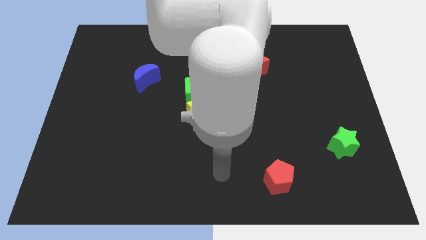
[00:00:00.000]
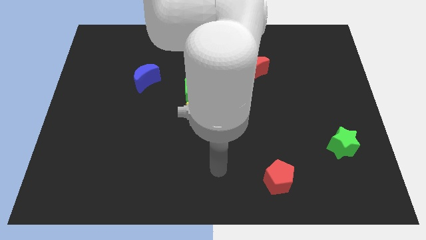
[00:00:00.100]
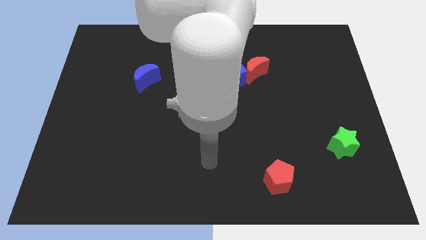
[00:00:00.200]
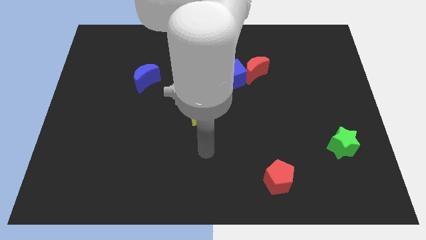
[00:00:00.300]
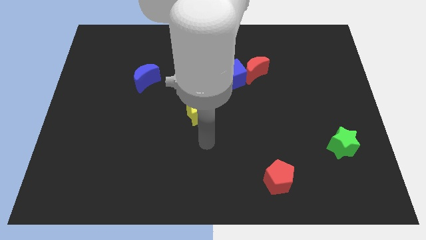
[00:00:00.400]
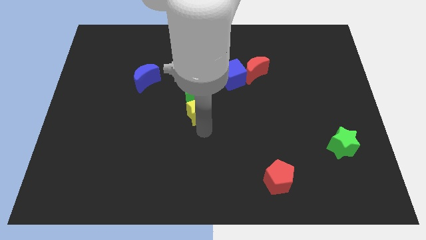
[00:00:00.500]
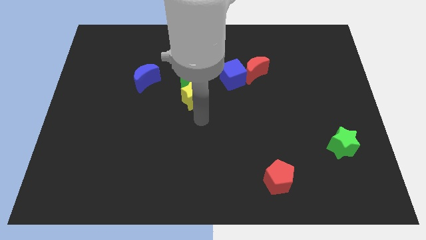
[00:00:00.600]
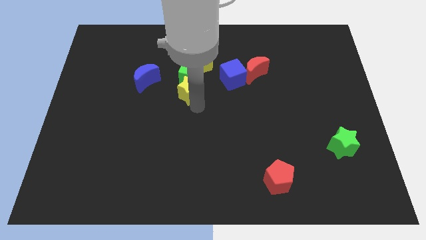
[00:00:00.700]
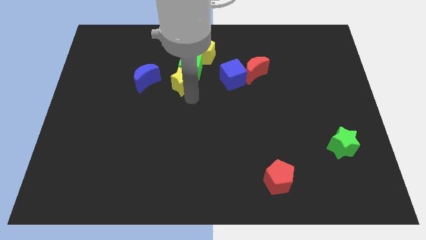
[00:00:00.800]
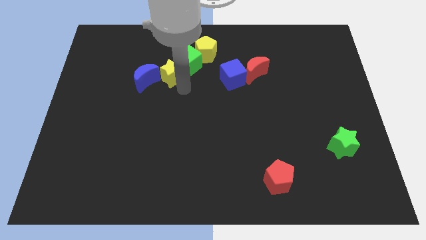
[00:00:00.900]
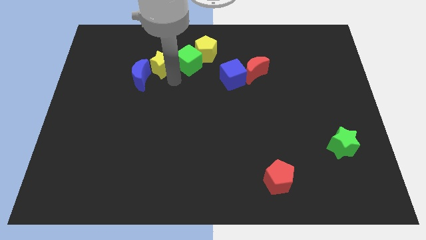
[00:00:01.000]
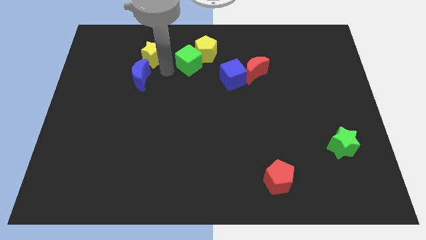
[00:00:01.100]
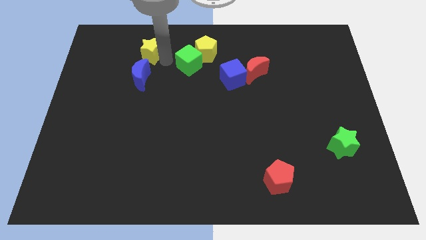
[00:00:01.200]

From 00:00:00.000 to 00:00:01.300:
separate the green cube from the yellow star

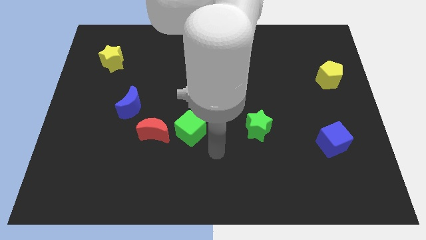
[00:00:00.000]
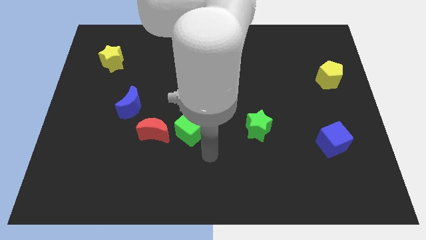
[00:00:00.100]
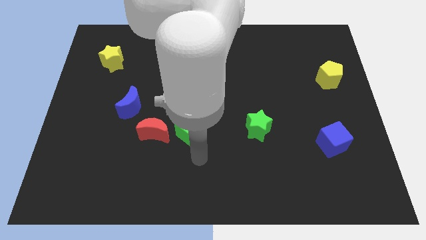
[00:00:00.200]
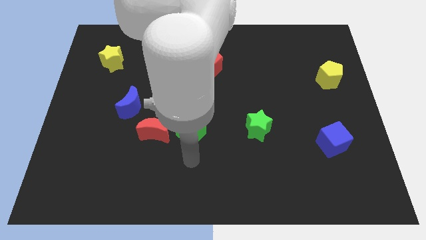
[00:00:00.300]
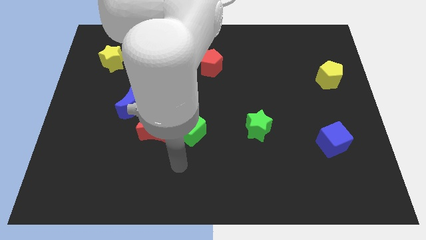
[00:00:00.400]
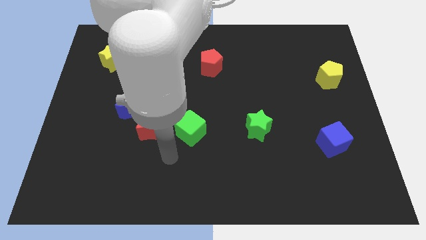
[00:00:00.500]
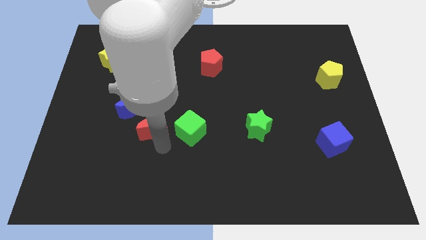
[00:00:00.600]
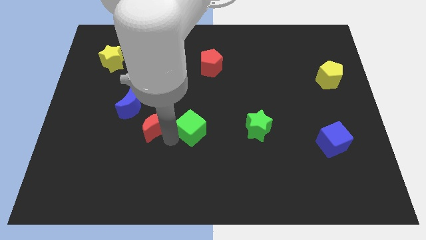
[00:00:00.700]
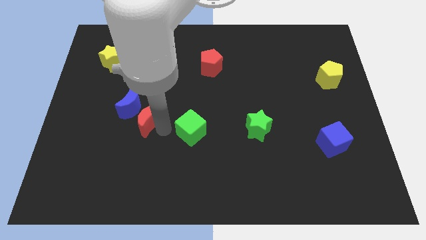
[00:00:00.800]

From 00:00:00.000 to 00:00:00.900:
separate the green cube from the red moon

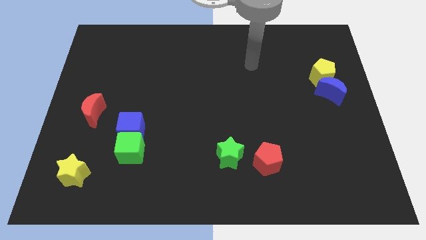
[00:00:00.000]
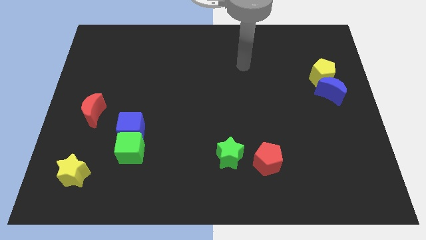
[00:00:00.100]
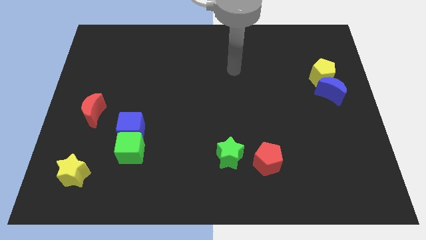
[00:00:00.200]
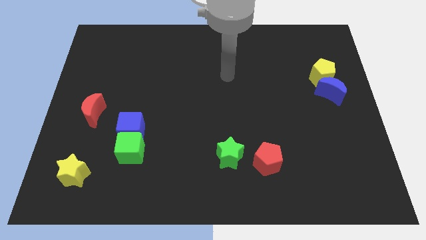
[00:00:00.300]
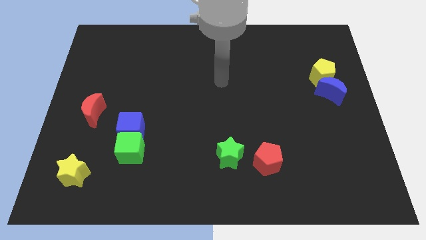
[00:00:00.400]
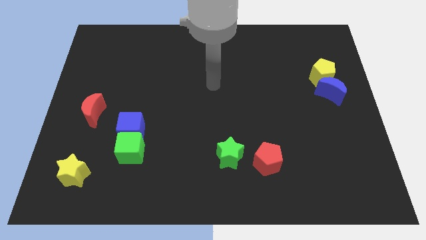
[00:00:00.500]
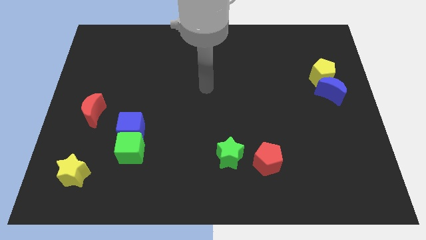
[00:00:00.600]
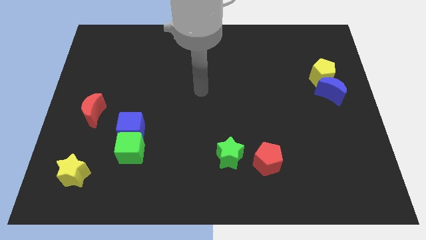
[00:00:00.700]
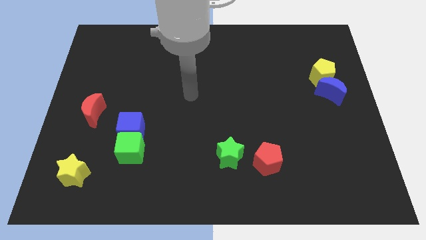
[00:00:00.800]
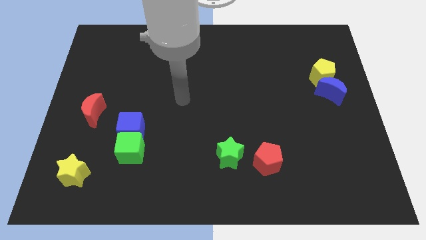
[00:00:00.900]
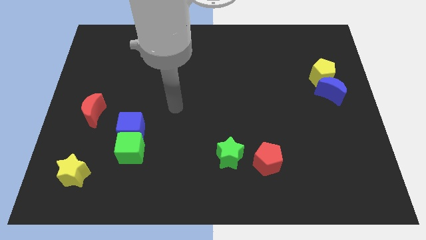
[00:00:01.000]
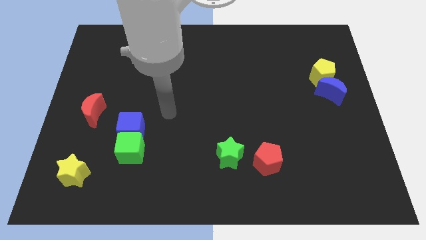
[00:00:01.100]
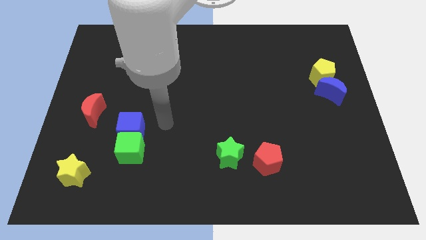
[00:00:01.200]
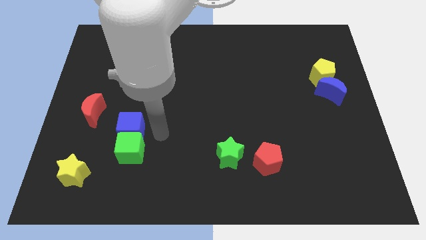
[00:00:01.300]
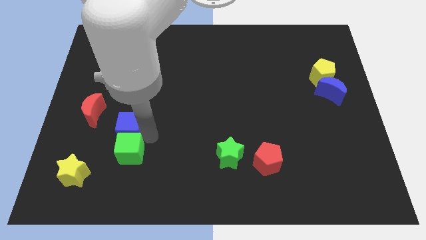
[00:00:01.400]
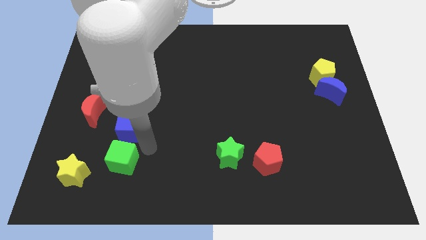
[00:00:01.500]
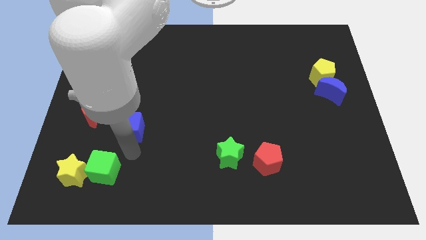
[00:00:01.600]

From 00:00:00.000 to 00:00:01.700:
separate the blue cube from the green cube

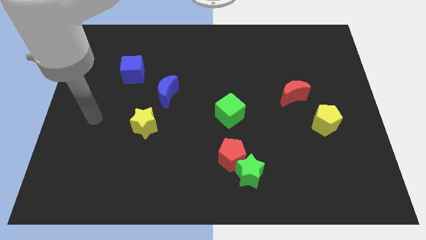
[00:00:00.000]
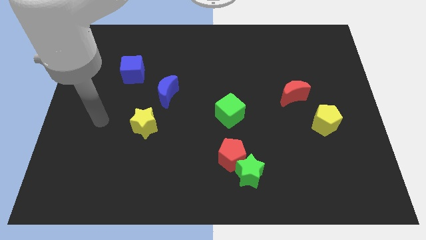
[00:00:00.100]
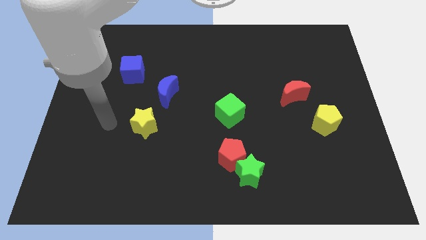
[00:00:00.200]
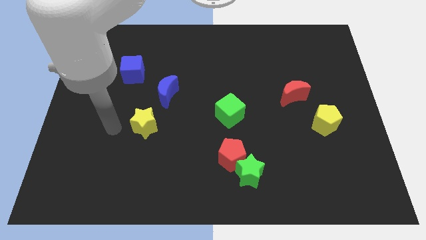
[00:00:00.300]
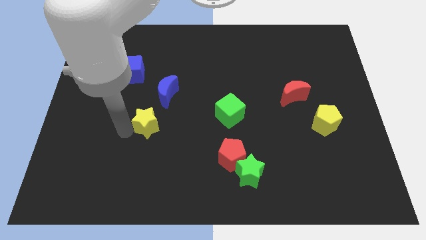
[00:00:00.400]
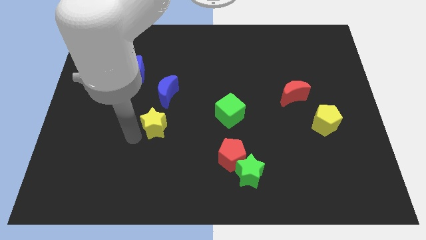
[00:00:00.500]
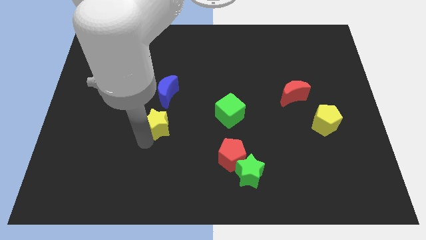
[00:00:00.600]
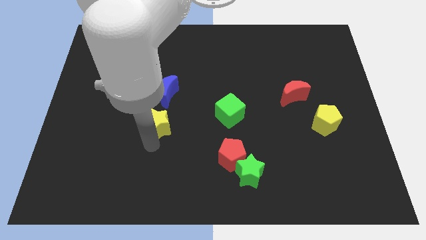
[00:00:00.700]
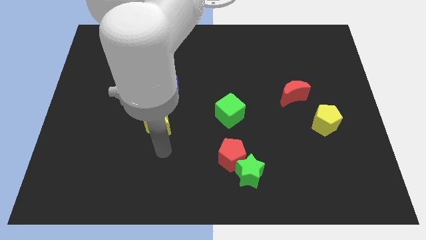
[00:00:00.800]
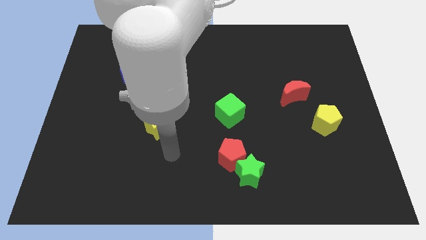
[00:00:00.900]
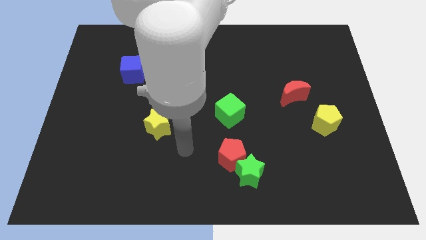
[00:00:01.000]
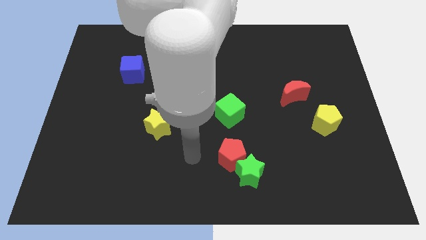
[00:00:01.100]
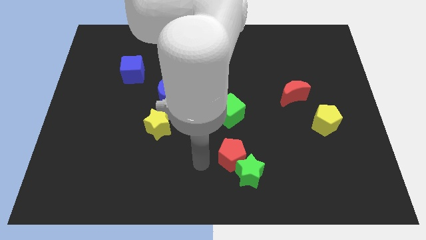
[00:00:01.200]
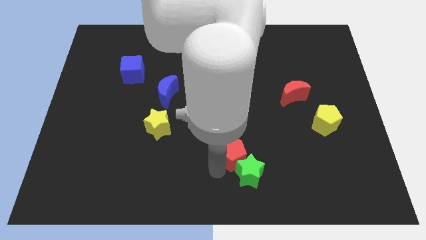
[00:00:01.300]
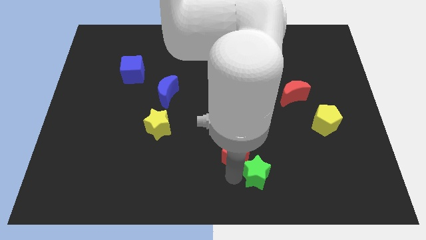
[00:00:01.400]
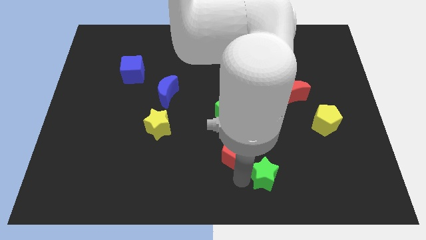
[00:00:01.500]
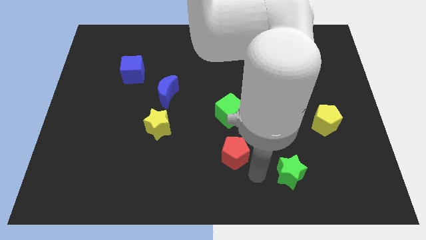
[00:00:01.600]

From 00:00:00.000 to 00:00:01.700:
separate the red pentagon from the green star

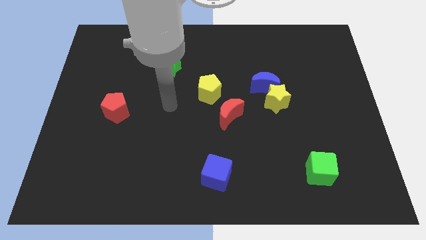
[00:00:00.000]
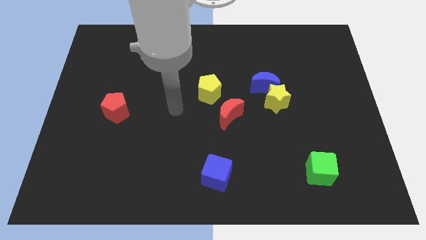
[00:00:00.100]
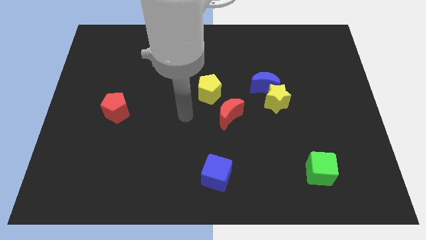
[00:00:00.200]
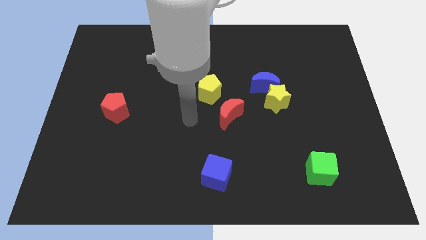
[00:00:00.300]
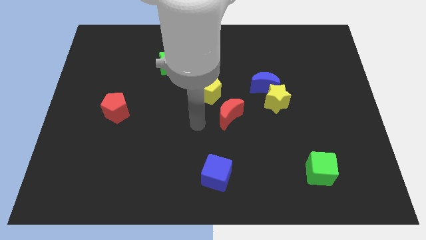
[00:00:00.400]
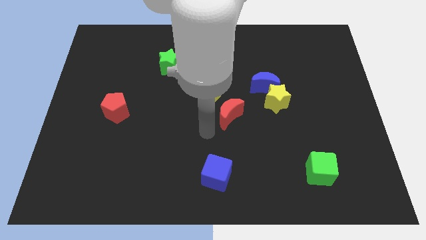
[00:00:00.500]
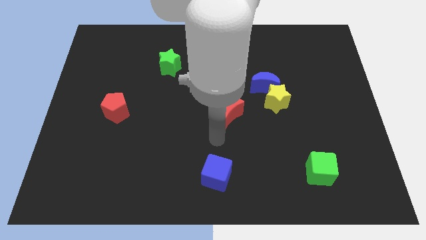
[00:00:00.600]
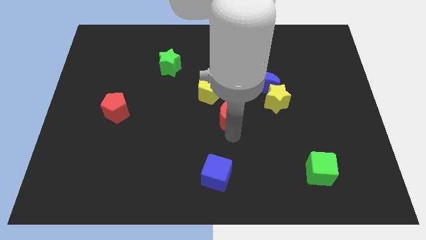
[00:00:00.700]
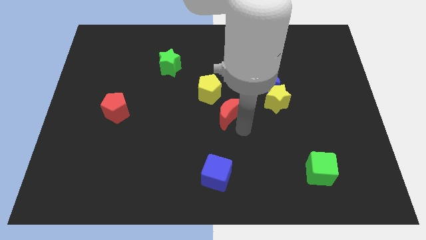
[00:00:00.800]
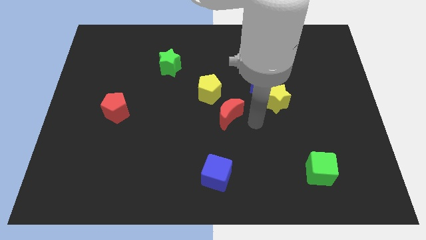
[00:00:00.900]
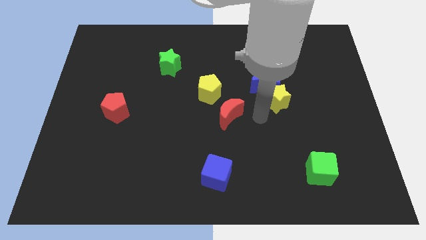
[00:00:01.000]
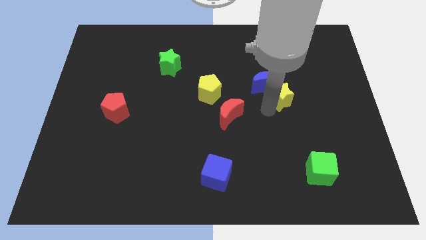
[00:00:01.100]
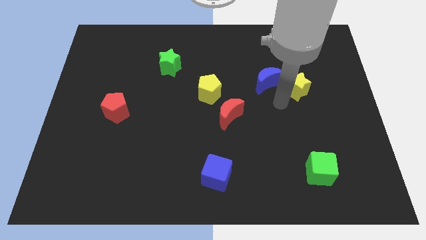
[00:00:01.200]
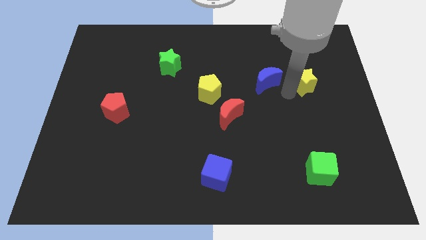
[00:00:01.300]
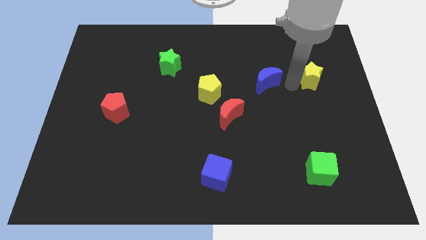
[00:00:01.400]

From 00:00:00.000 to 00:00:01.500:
pull the blue moon apart from the yellow star

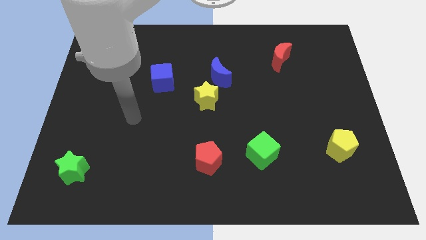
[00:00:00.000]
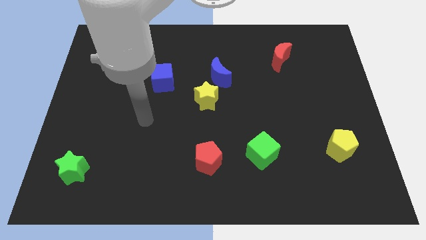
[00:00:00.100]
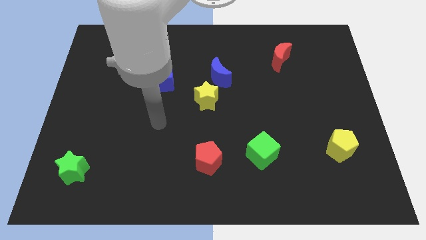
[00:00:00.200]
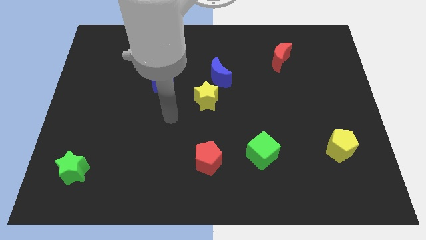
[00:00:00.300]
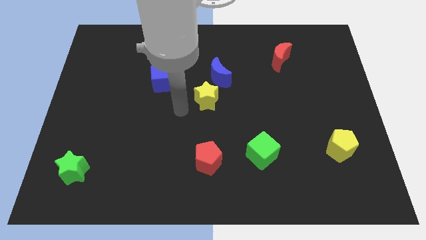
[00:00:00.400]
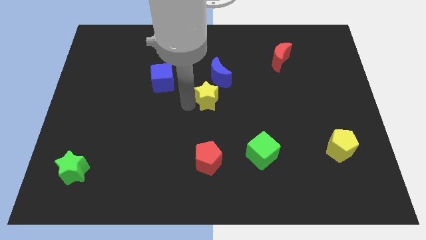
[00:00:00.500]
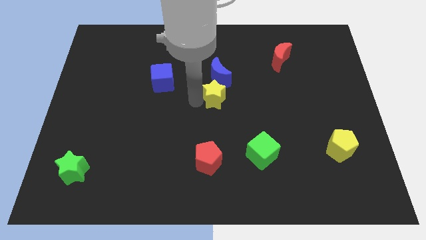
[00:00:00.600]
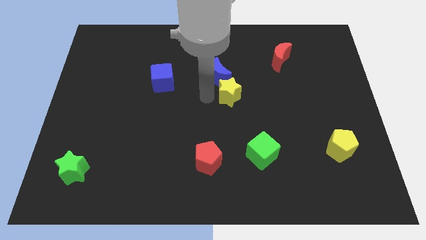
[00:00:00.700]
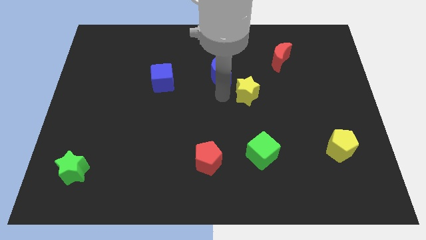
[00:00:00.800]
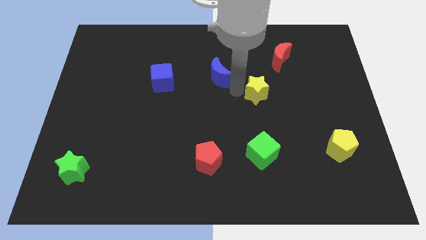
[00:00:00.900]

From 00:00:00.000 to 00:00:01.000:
move the blue moon away from the yellow star

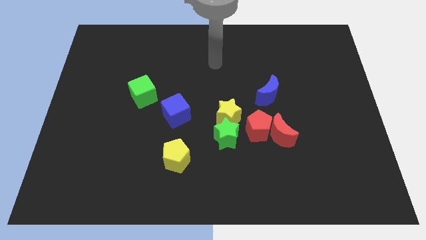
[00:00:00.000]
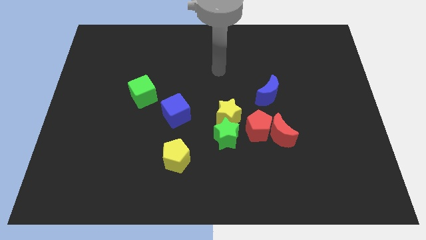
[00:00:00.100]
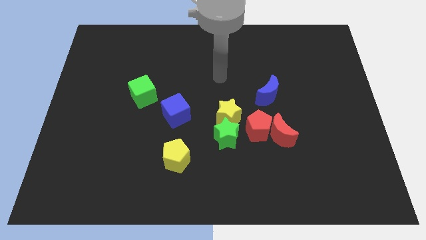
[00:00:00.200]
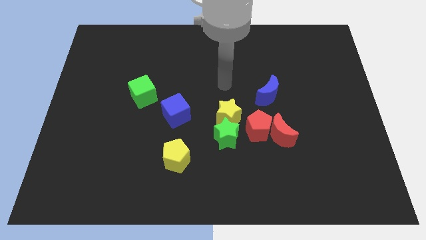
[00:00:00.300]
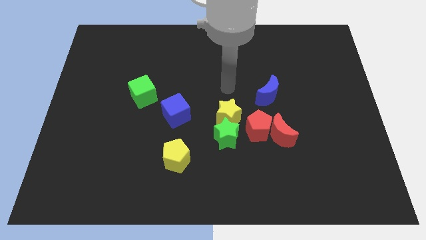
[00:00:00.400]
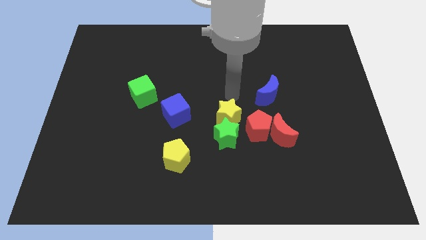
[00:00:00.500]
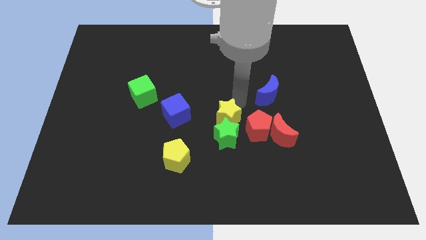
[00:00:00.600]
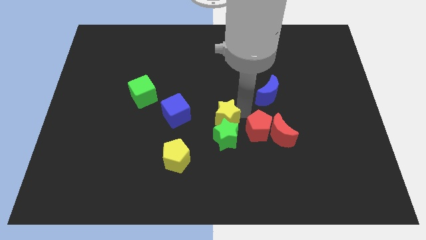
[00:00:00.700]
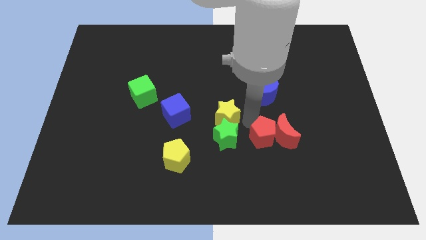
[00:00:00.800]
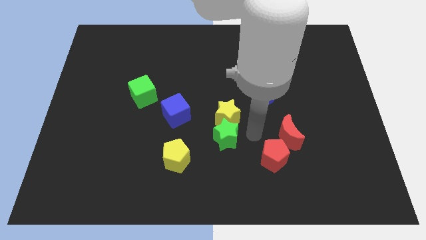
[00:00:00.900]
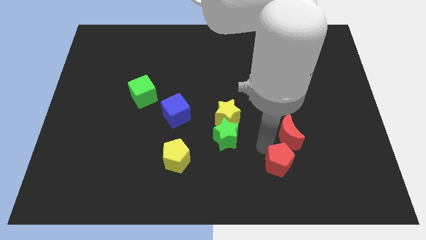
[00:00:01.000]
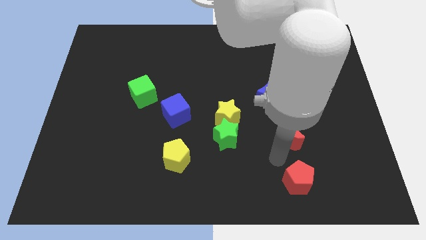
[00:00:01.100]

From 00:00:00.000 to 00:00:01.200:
pull the red moon apart from the red pentagon

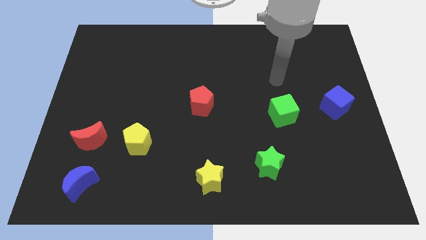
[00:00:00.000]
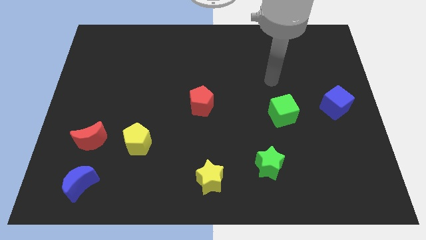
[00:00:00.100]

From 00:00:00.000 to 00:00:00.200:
move the yellow pentagon away from the red moon
